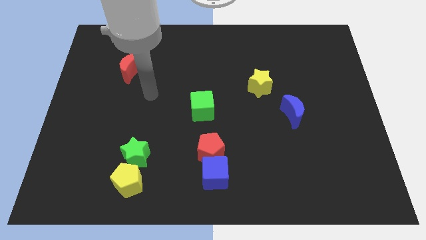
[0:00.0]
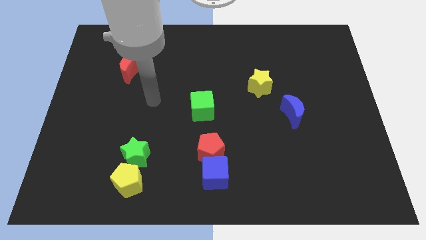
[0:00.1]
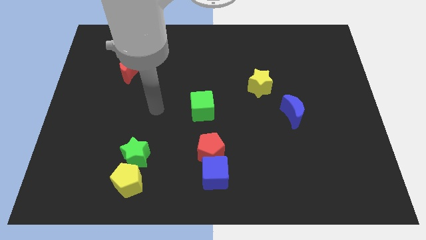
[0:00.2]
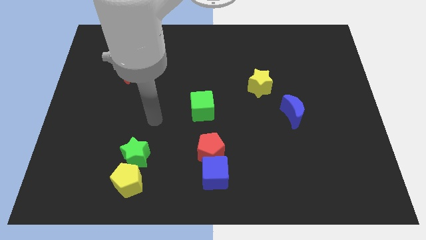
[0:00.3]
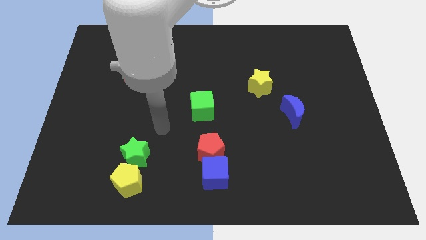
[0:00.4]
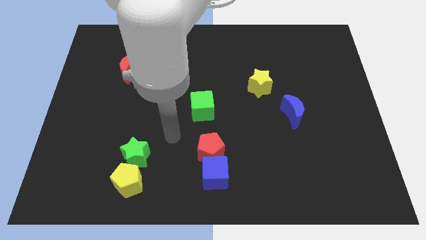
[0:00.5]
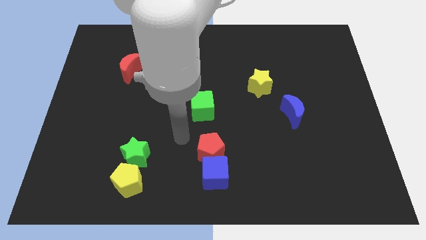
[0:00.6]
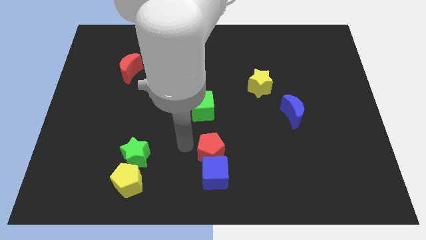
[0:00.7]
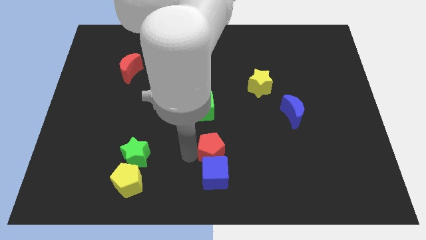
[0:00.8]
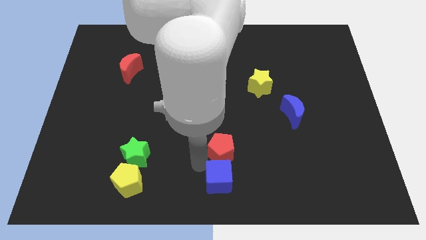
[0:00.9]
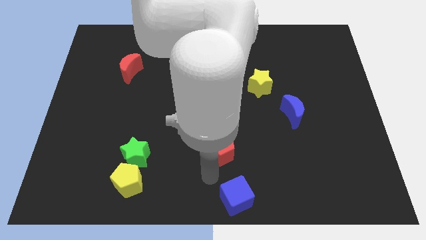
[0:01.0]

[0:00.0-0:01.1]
pull the red pentagon apart from the blue cube

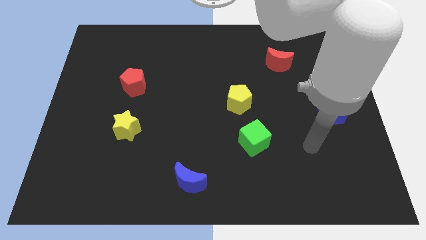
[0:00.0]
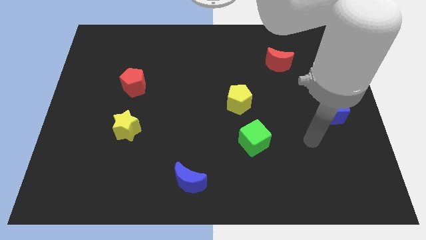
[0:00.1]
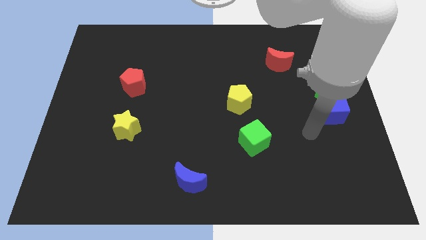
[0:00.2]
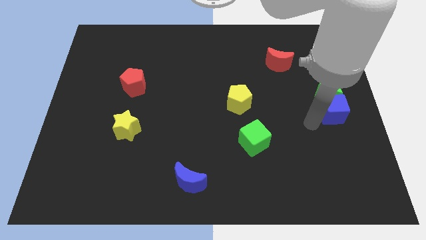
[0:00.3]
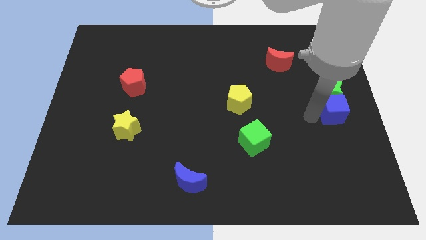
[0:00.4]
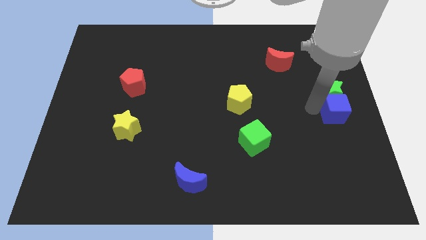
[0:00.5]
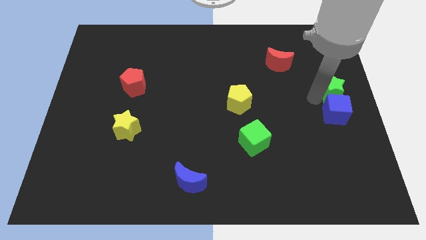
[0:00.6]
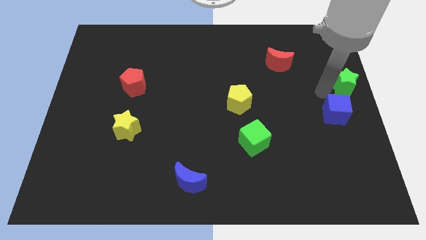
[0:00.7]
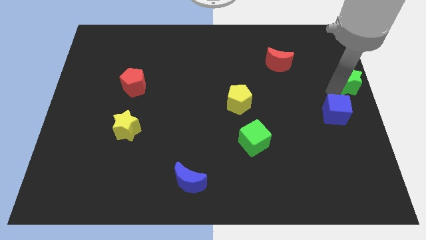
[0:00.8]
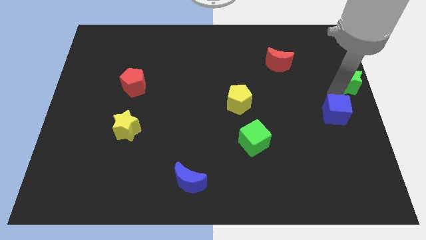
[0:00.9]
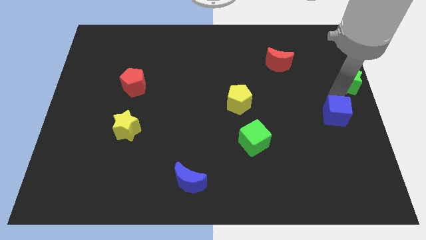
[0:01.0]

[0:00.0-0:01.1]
move the blue cube away from the green star

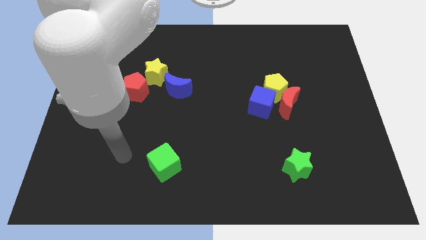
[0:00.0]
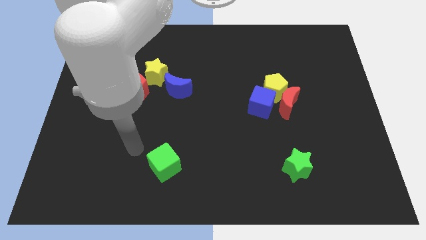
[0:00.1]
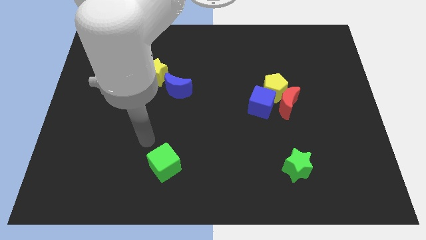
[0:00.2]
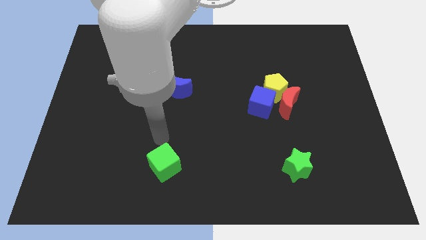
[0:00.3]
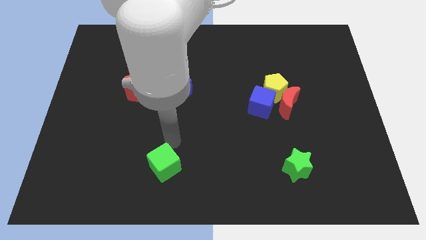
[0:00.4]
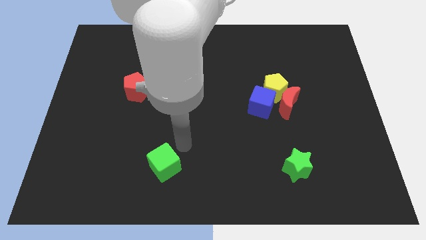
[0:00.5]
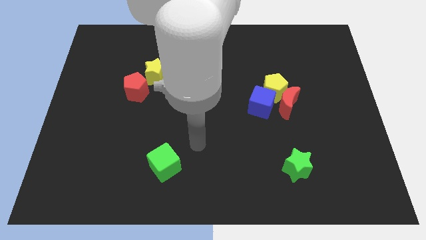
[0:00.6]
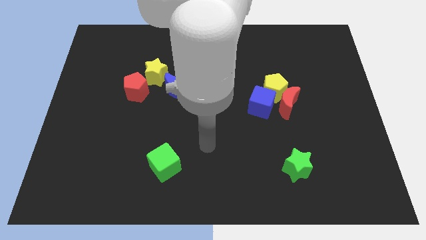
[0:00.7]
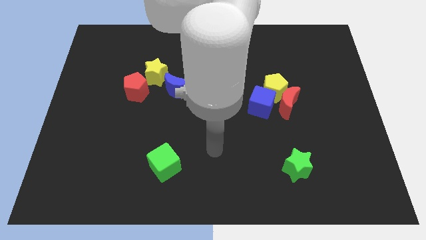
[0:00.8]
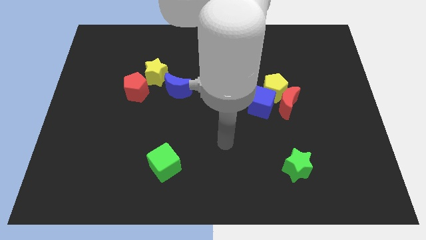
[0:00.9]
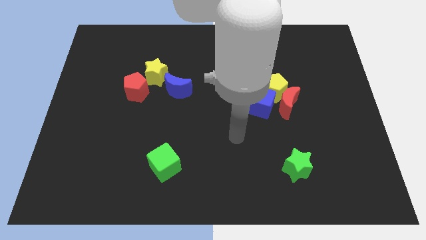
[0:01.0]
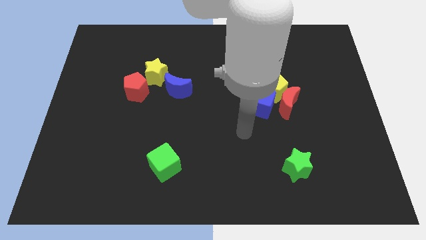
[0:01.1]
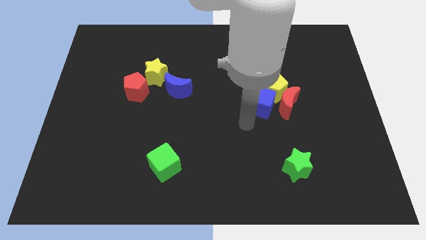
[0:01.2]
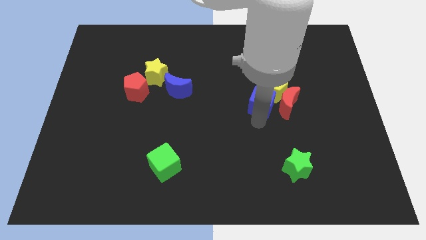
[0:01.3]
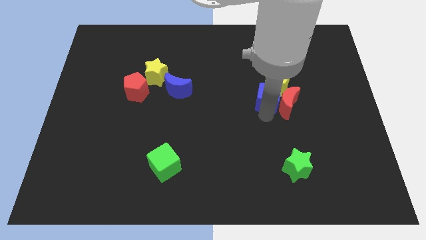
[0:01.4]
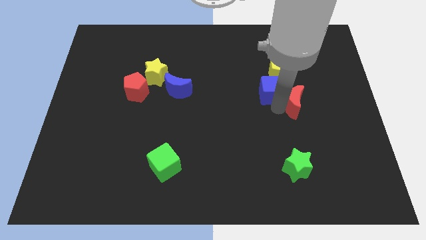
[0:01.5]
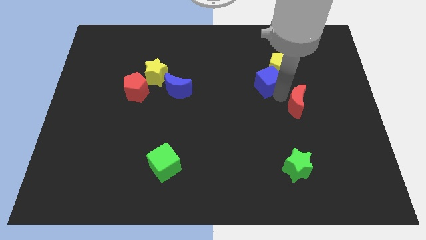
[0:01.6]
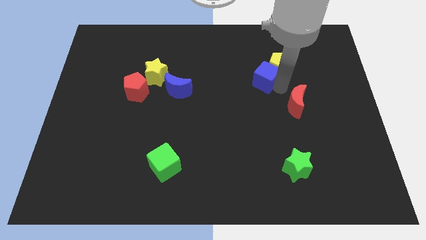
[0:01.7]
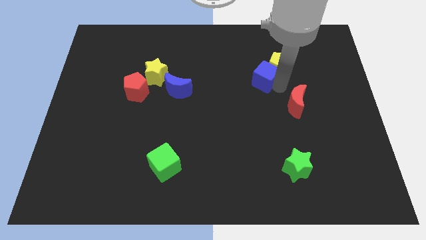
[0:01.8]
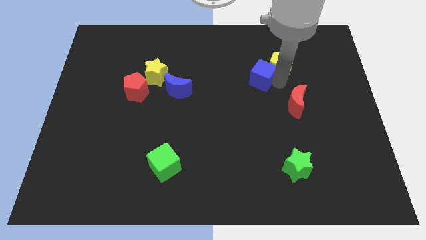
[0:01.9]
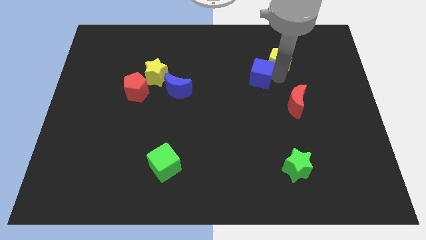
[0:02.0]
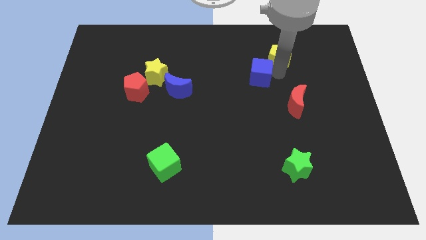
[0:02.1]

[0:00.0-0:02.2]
pull the yellow pentagon apart from the red moon and blue cube

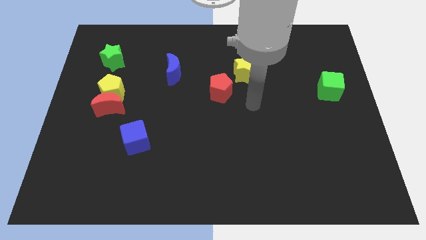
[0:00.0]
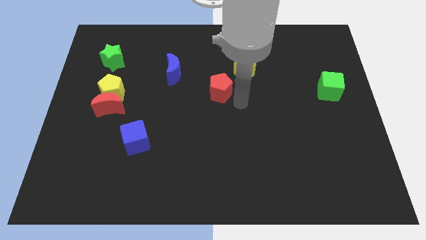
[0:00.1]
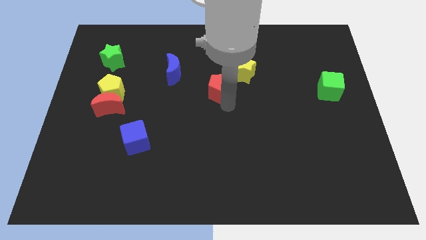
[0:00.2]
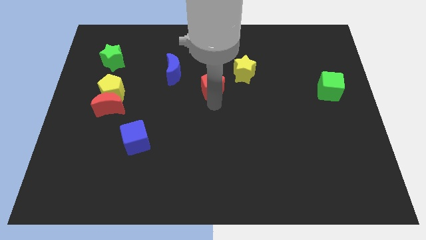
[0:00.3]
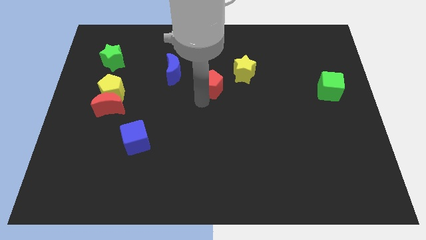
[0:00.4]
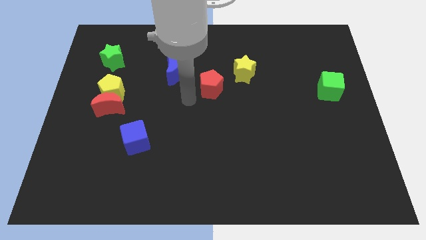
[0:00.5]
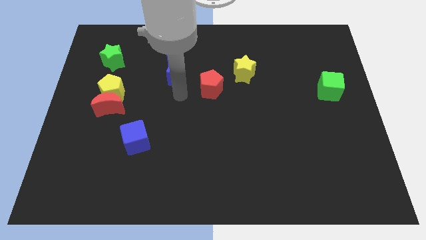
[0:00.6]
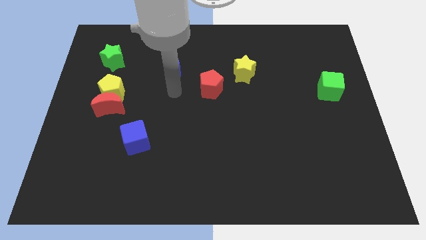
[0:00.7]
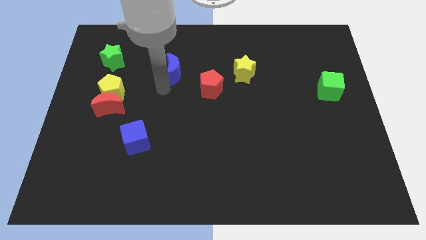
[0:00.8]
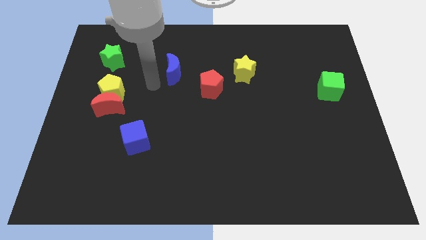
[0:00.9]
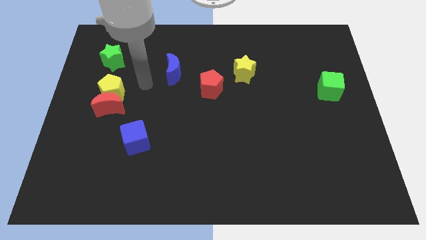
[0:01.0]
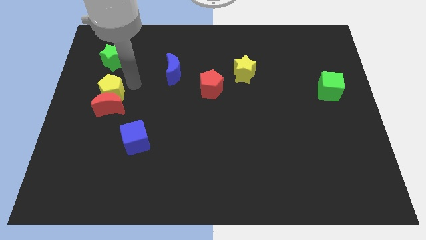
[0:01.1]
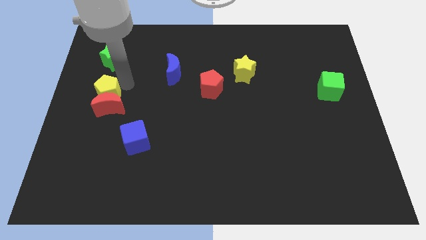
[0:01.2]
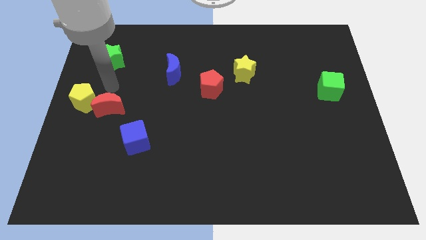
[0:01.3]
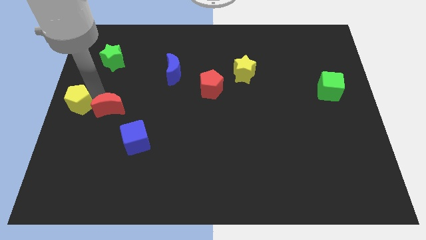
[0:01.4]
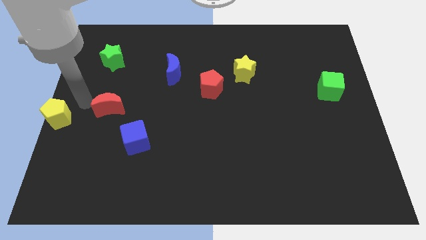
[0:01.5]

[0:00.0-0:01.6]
separate the red moon from the yellow pentagon

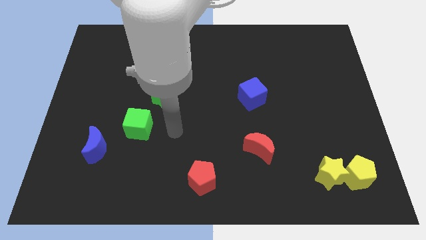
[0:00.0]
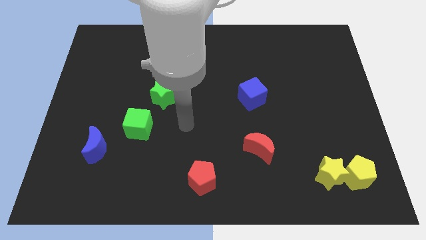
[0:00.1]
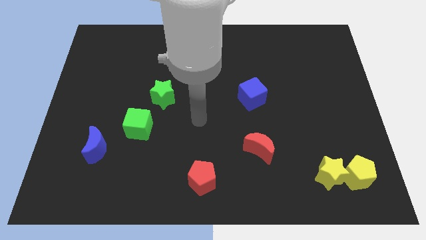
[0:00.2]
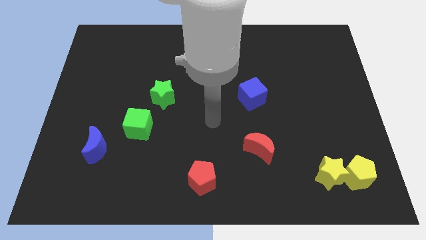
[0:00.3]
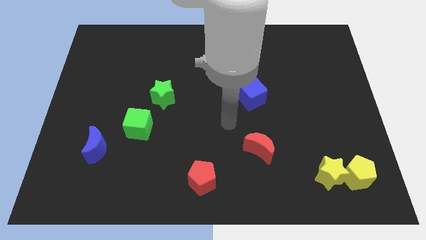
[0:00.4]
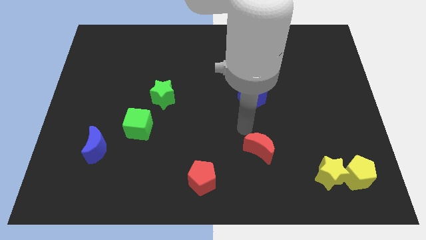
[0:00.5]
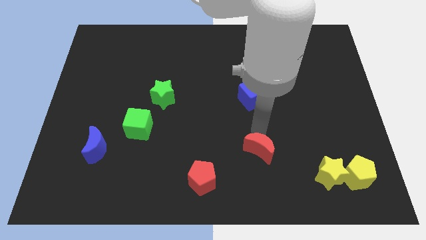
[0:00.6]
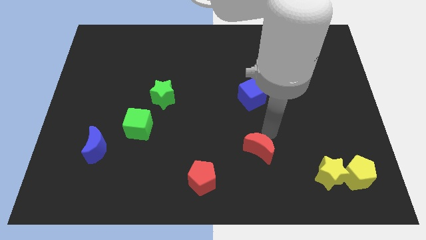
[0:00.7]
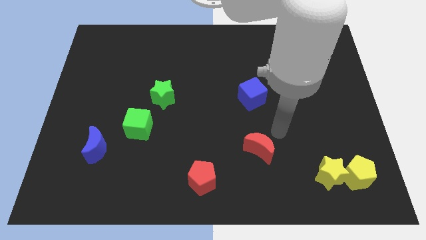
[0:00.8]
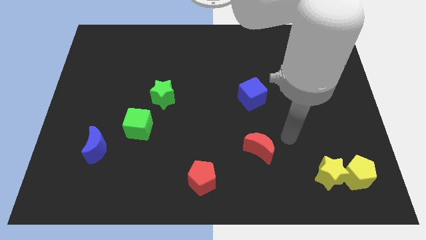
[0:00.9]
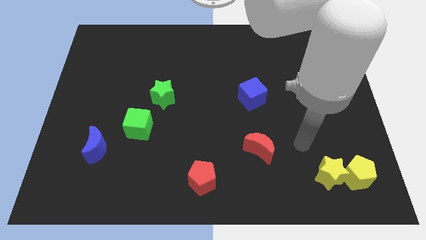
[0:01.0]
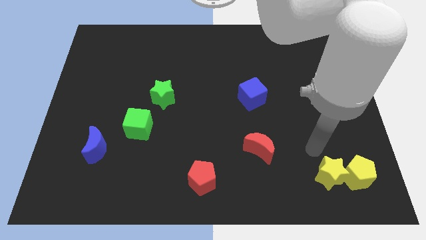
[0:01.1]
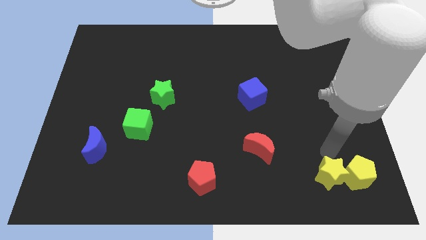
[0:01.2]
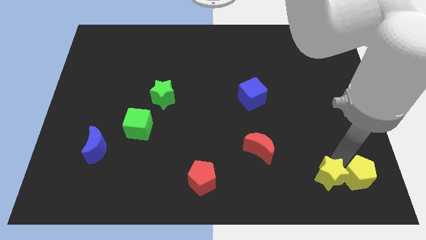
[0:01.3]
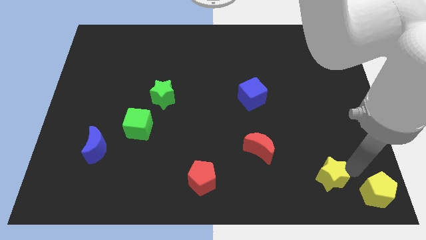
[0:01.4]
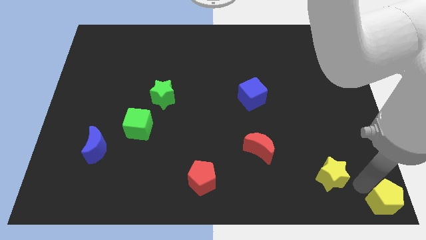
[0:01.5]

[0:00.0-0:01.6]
separate the yellow star from the yellow pentagon

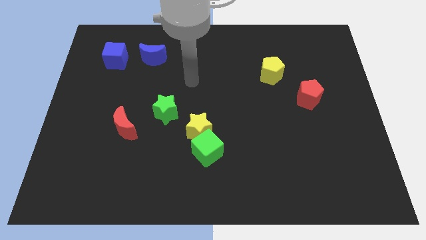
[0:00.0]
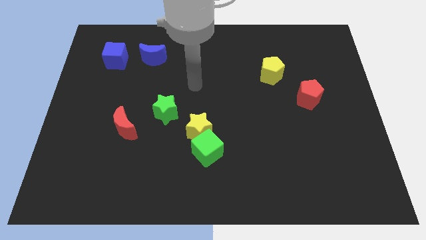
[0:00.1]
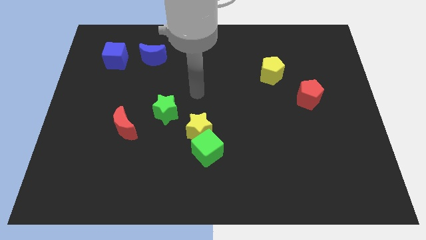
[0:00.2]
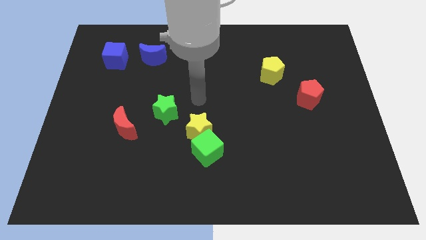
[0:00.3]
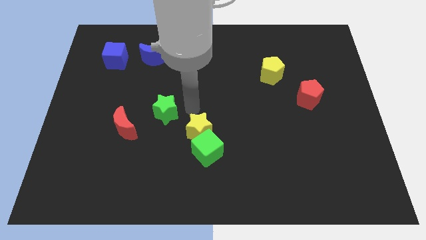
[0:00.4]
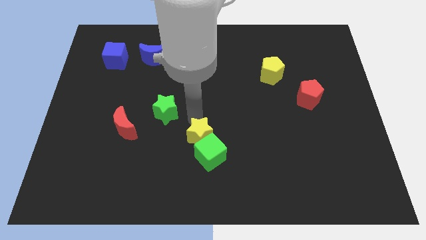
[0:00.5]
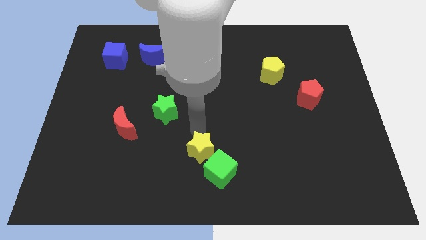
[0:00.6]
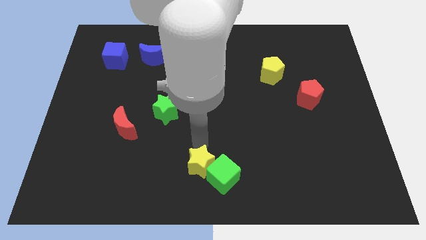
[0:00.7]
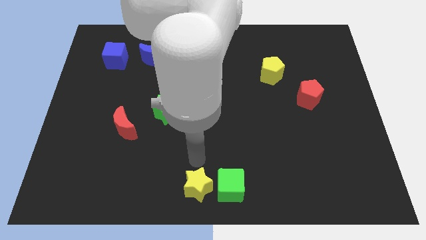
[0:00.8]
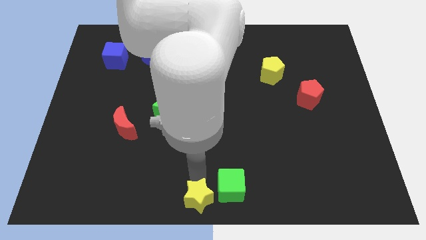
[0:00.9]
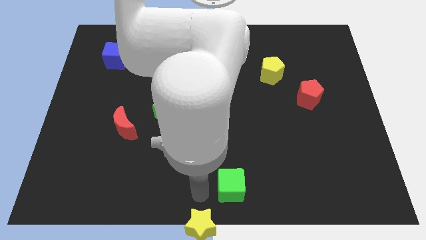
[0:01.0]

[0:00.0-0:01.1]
separate the green cube from the yellow star

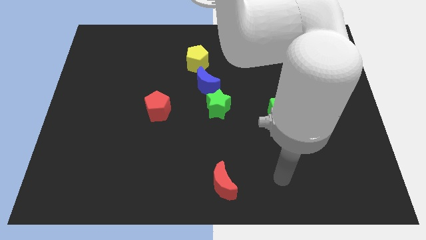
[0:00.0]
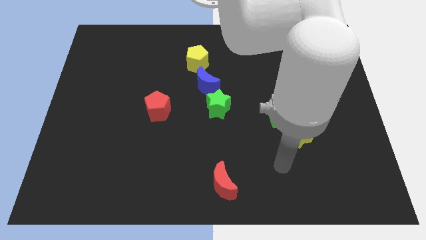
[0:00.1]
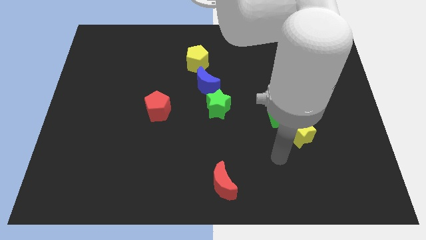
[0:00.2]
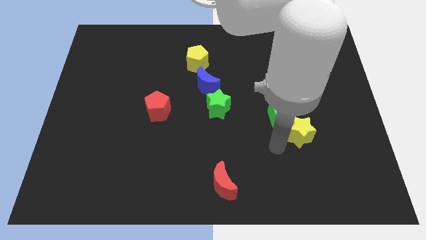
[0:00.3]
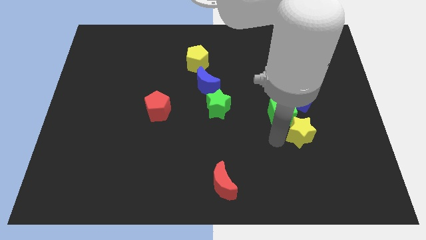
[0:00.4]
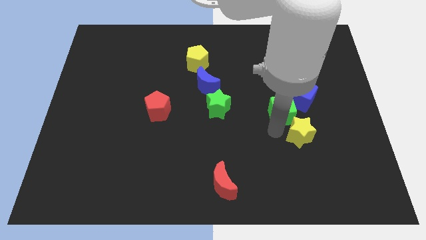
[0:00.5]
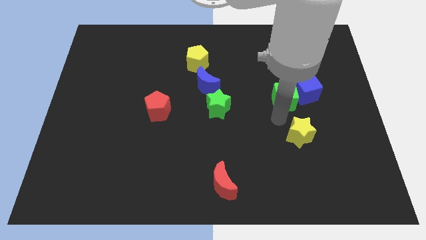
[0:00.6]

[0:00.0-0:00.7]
move the yellow star away from the green cube
